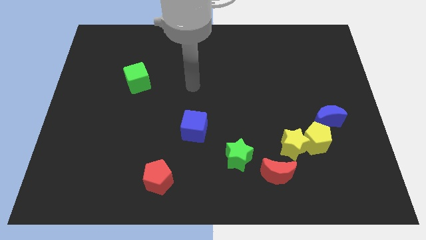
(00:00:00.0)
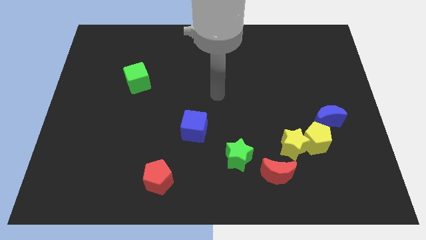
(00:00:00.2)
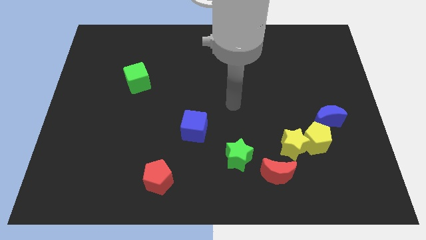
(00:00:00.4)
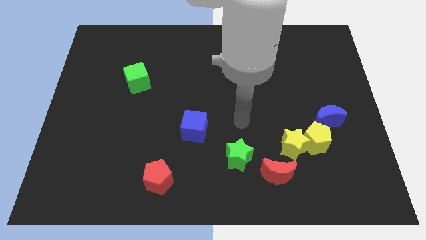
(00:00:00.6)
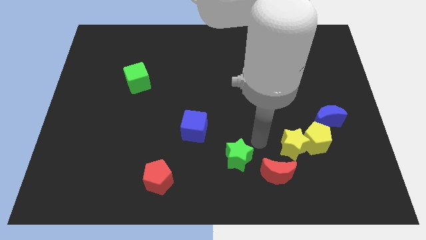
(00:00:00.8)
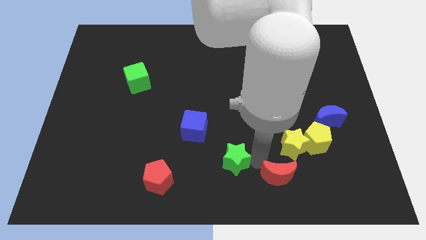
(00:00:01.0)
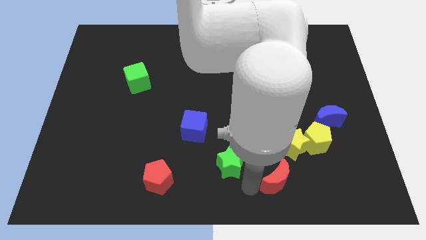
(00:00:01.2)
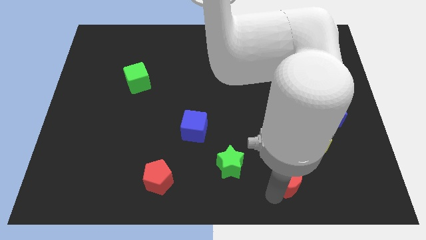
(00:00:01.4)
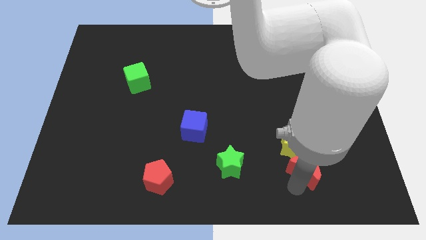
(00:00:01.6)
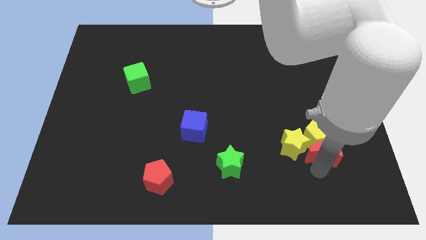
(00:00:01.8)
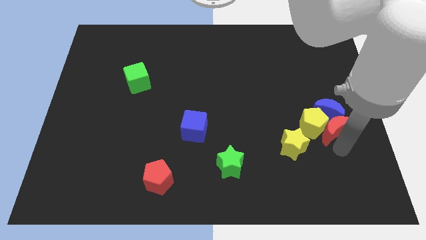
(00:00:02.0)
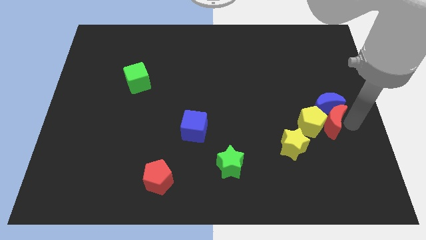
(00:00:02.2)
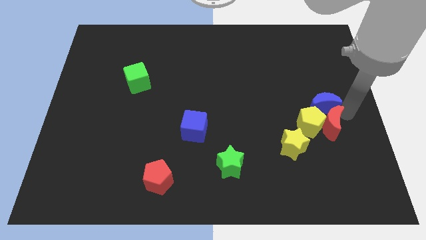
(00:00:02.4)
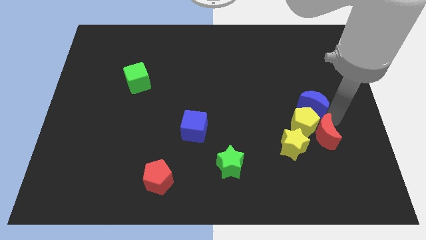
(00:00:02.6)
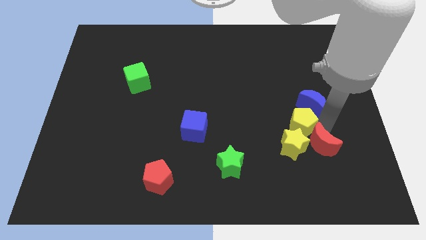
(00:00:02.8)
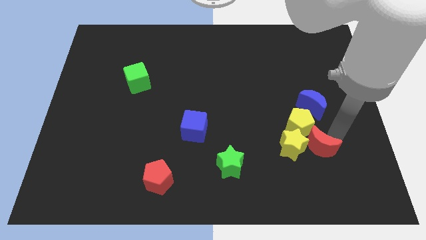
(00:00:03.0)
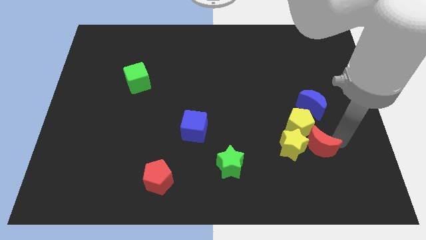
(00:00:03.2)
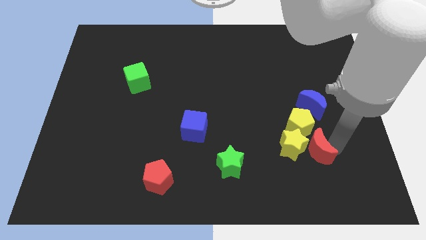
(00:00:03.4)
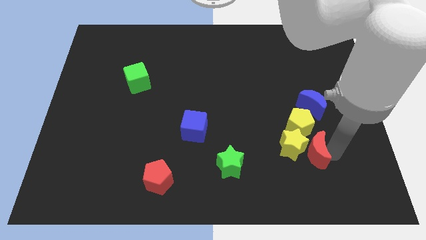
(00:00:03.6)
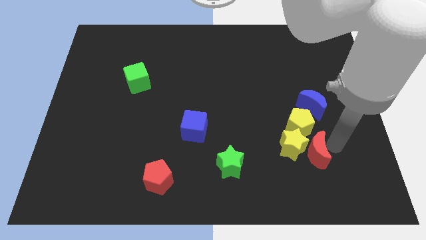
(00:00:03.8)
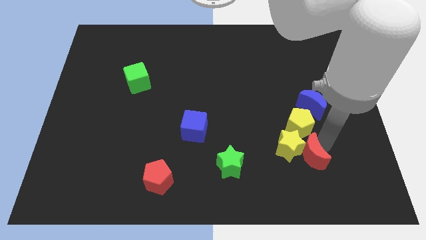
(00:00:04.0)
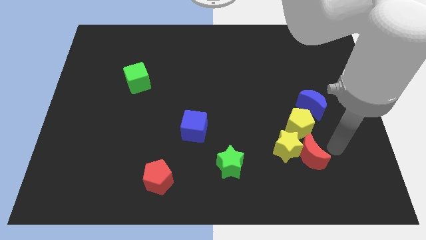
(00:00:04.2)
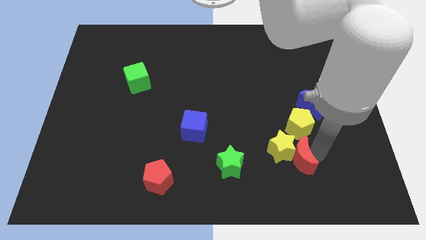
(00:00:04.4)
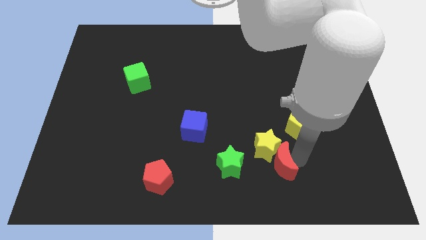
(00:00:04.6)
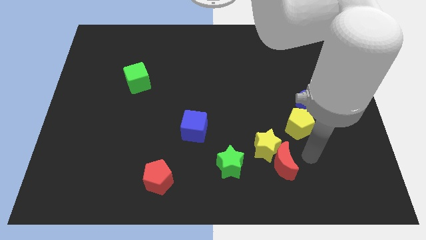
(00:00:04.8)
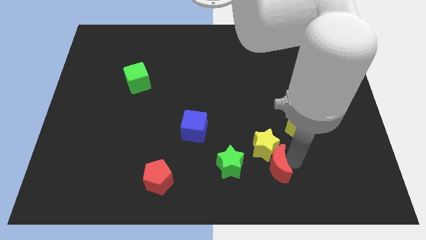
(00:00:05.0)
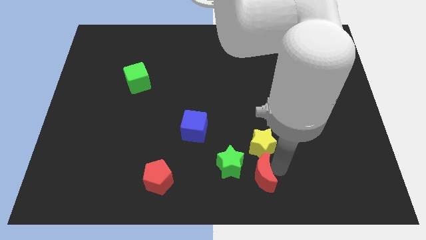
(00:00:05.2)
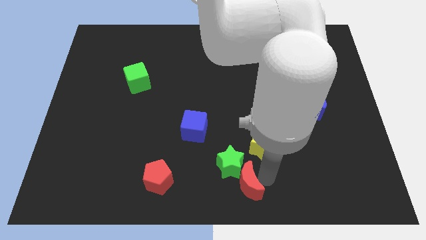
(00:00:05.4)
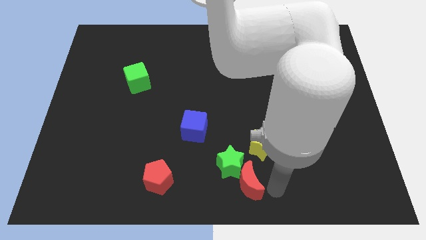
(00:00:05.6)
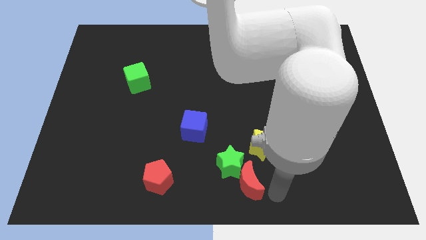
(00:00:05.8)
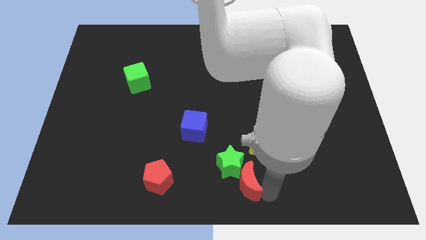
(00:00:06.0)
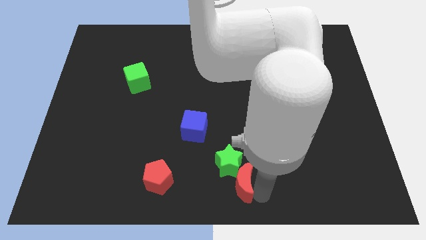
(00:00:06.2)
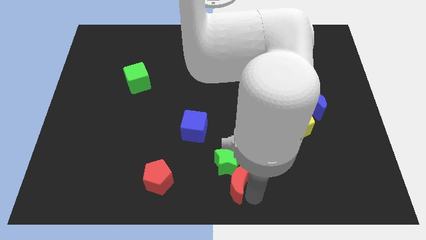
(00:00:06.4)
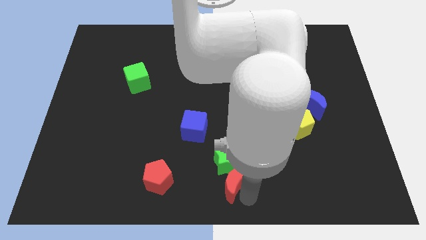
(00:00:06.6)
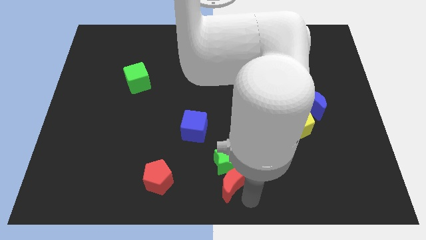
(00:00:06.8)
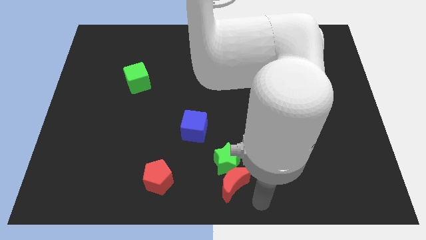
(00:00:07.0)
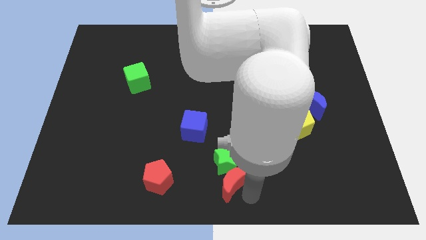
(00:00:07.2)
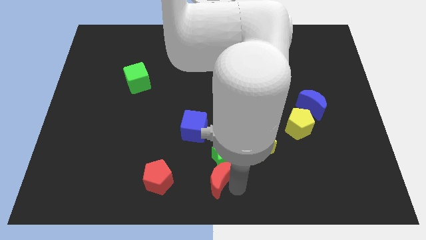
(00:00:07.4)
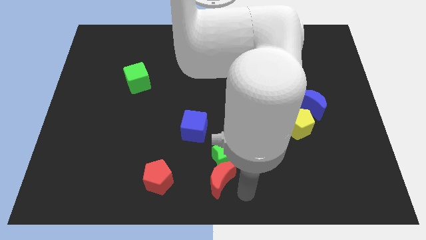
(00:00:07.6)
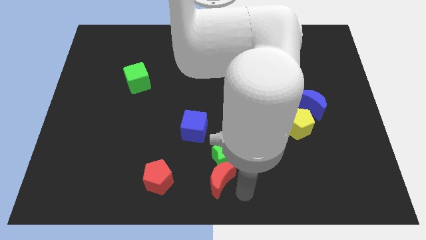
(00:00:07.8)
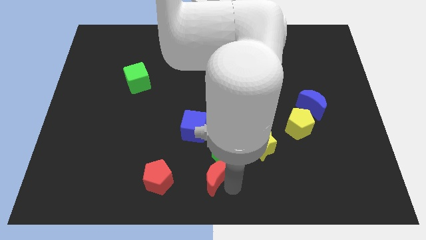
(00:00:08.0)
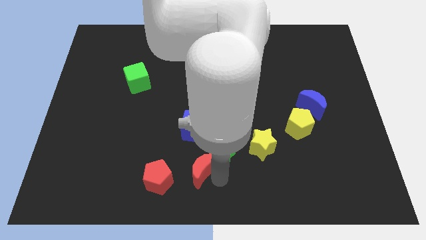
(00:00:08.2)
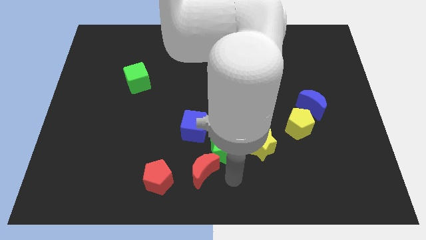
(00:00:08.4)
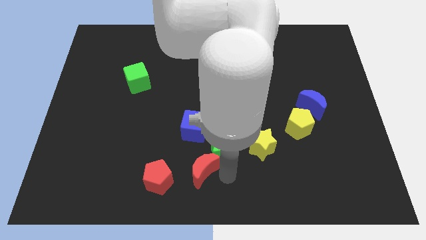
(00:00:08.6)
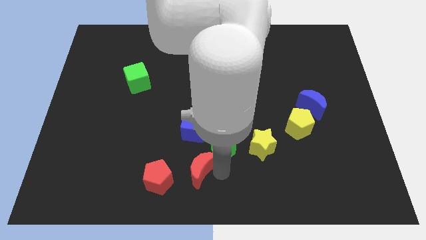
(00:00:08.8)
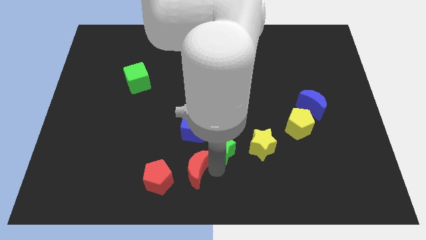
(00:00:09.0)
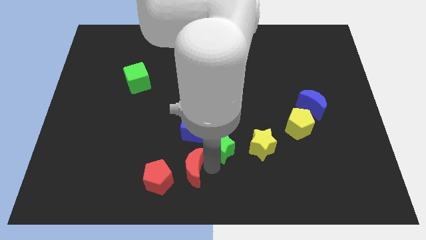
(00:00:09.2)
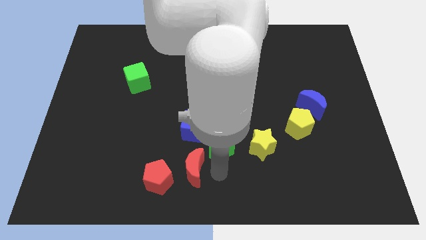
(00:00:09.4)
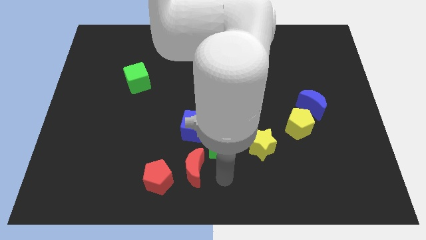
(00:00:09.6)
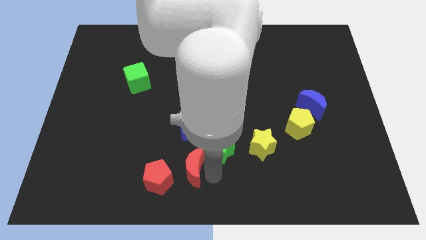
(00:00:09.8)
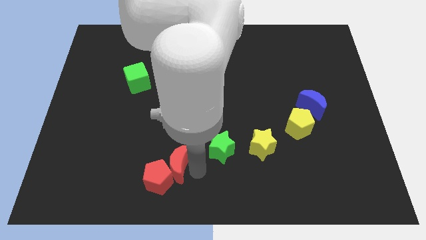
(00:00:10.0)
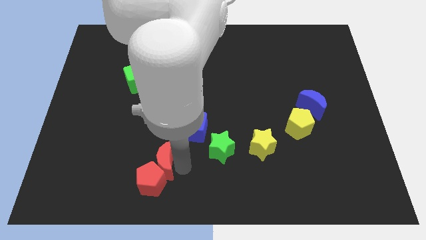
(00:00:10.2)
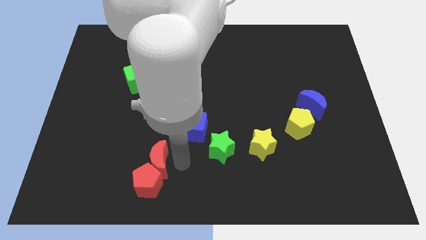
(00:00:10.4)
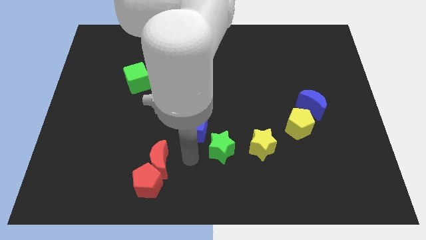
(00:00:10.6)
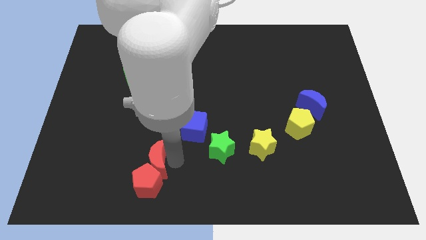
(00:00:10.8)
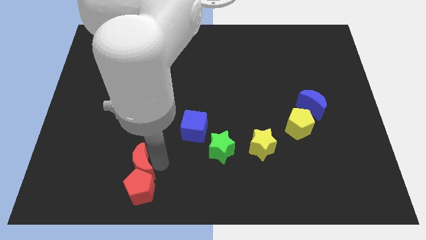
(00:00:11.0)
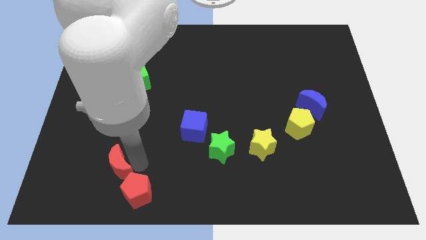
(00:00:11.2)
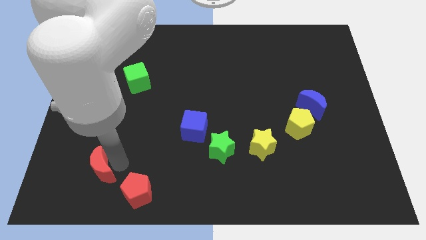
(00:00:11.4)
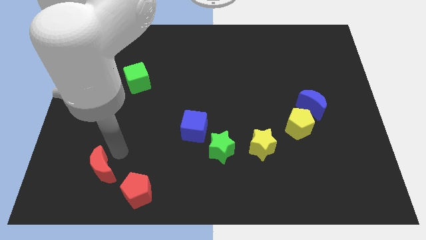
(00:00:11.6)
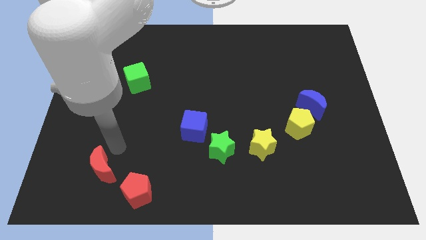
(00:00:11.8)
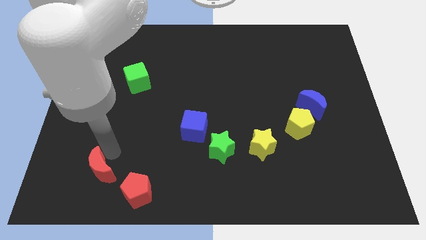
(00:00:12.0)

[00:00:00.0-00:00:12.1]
slide the red moon left of the red pentagon
